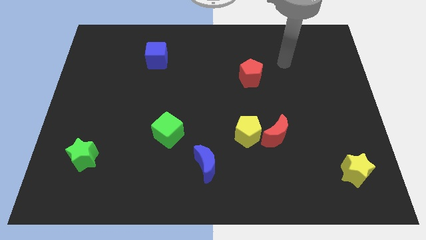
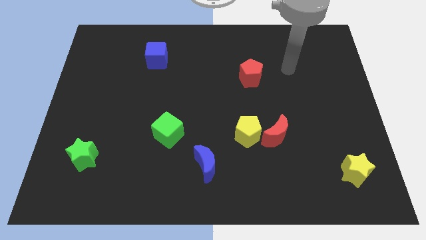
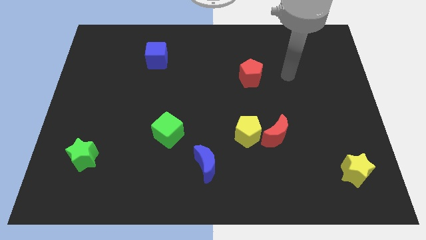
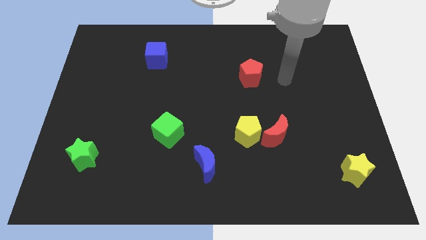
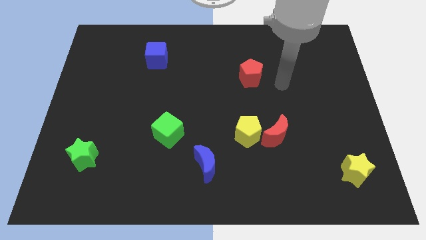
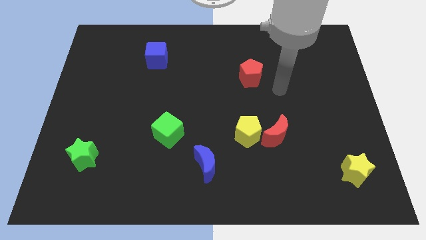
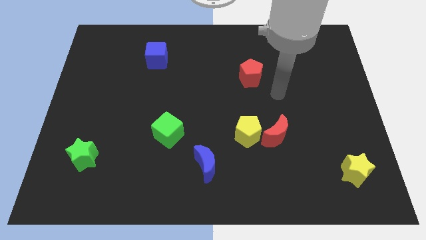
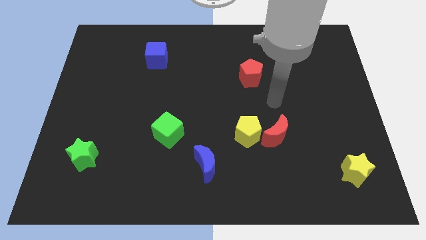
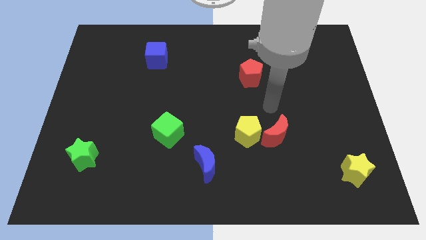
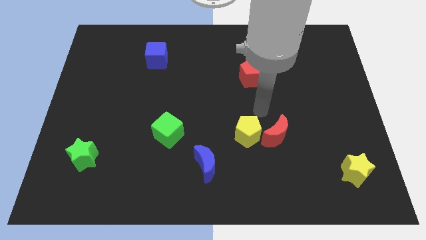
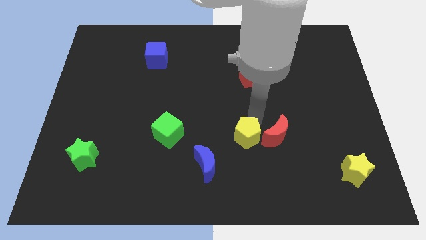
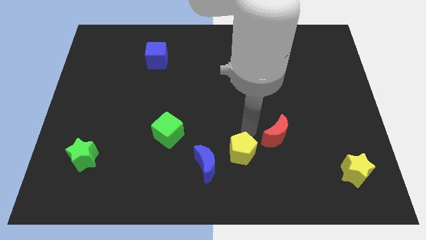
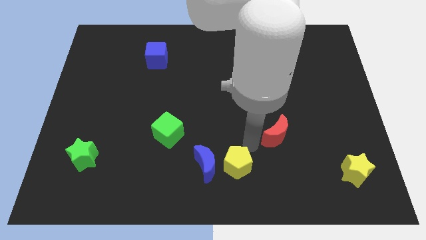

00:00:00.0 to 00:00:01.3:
move the red moon away from the yellow pentagon

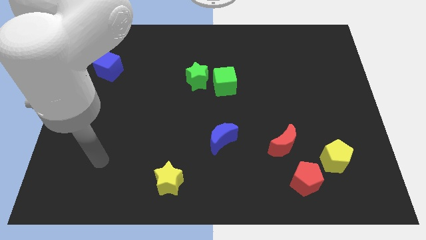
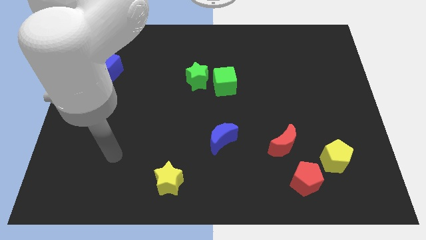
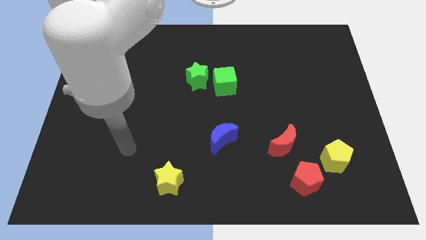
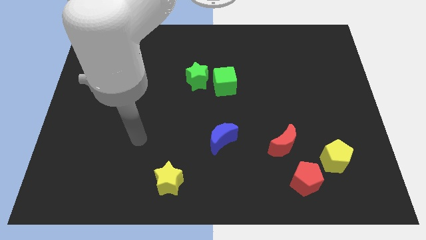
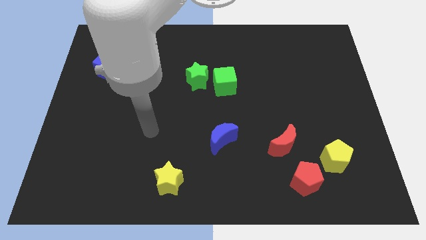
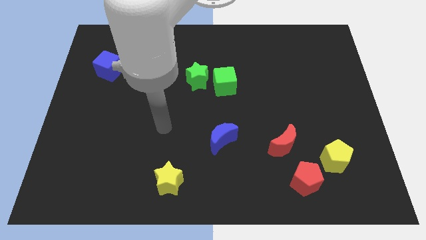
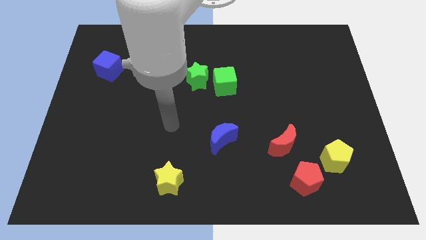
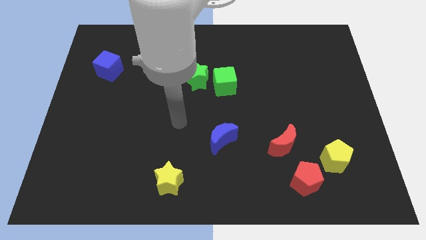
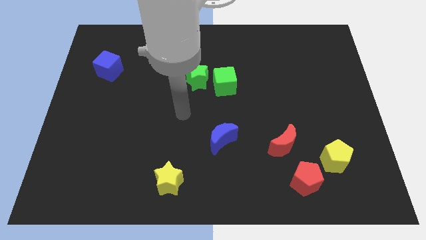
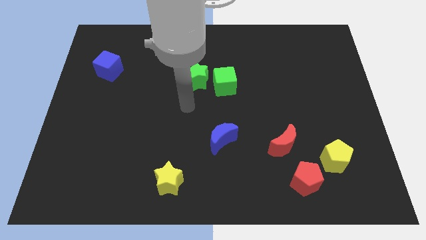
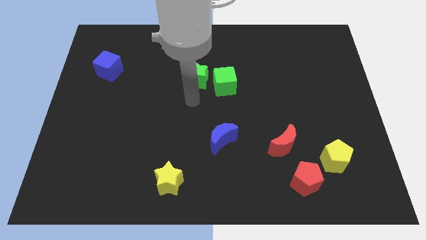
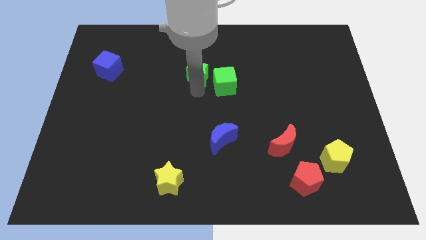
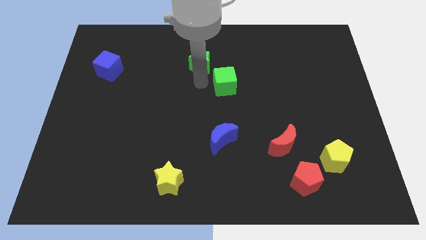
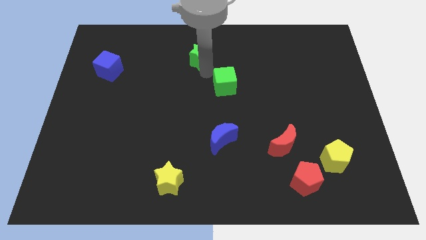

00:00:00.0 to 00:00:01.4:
pull the green cube apart from the green star

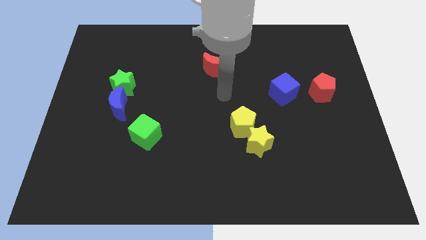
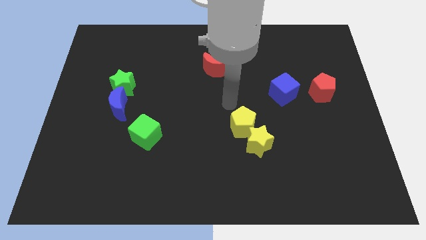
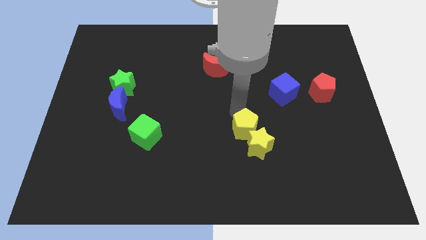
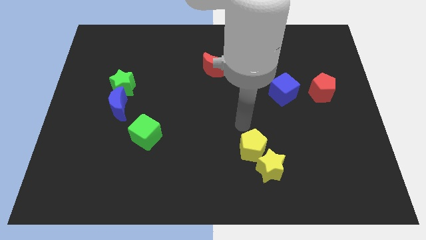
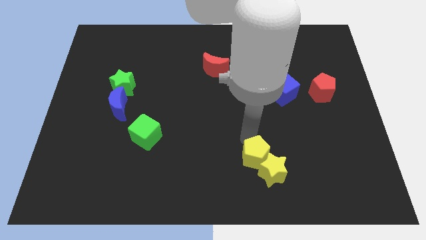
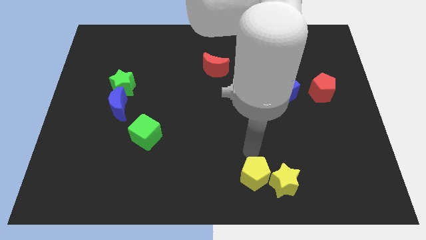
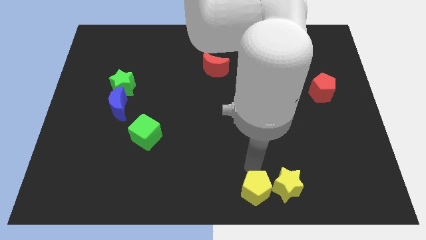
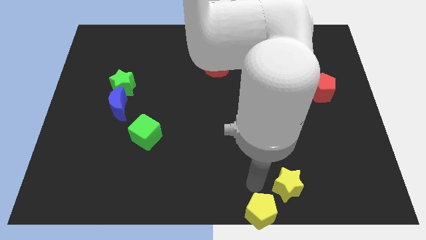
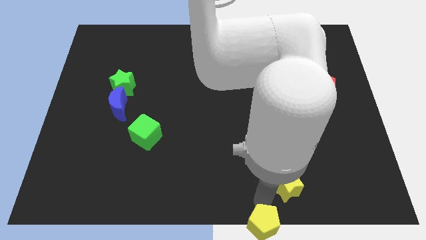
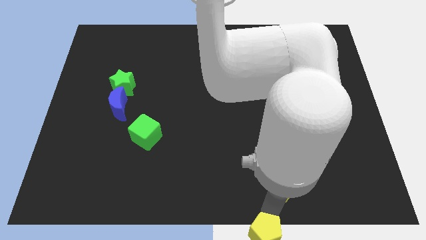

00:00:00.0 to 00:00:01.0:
move the yellow star away from the yellow pentagon

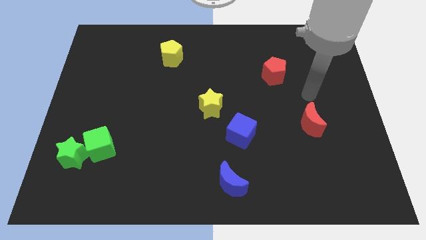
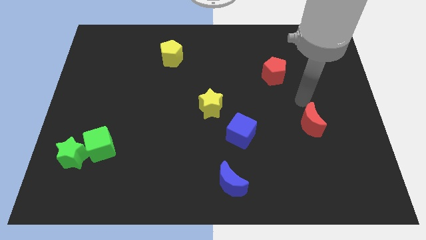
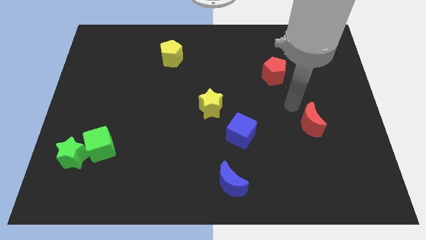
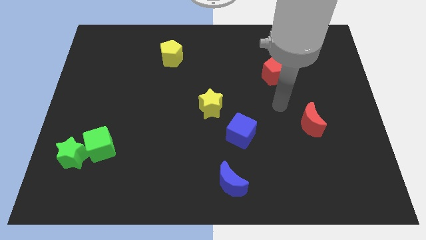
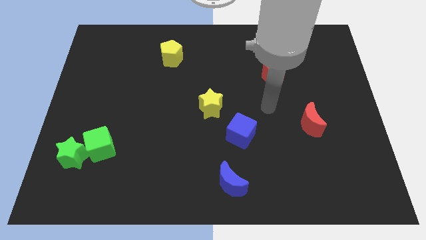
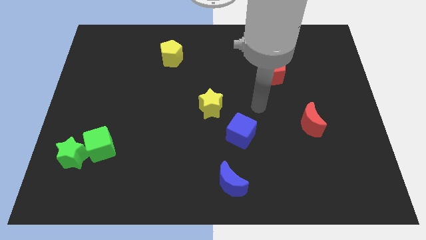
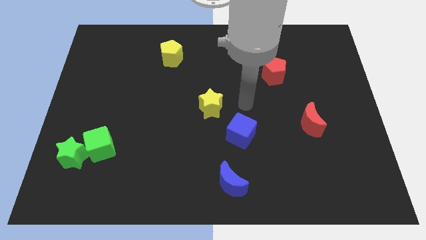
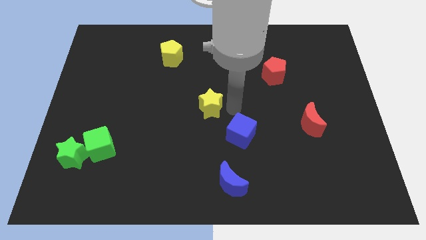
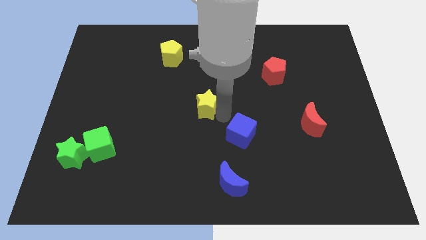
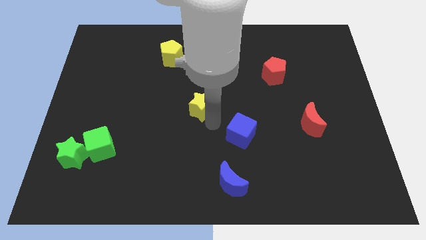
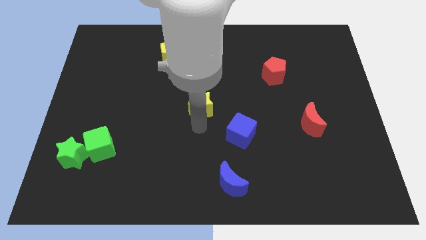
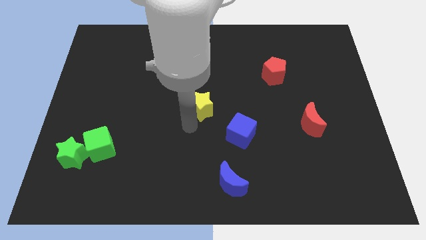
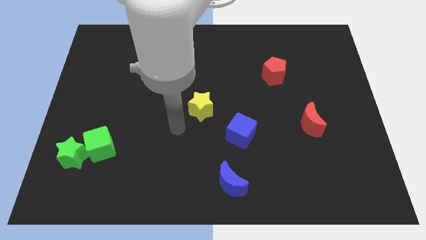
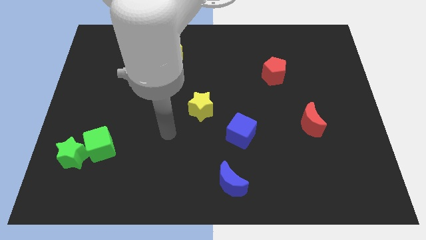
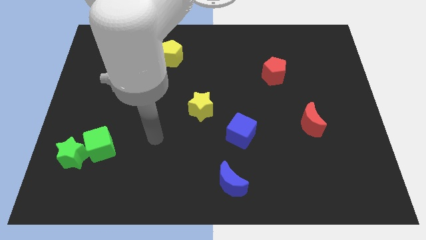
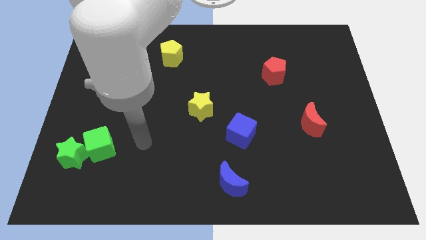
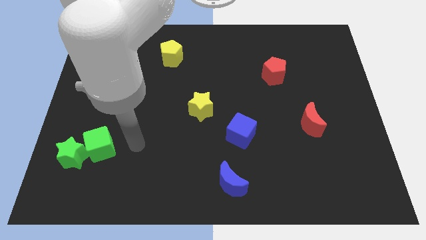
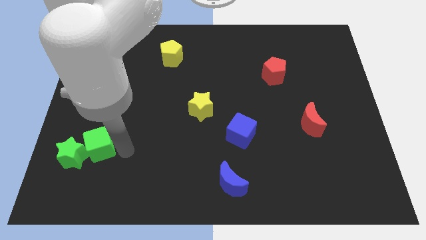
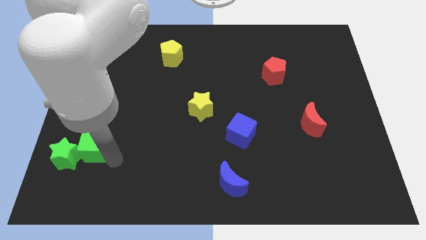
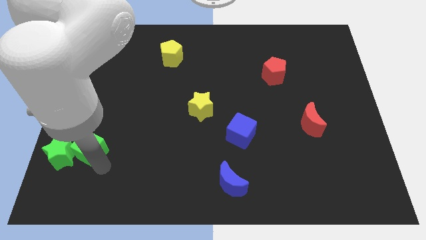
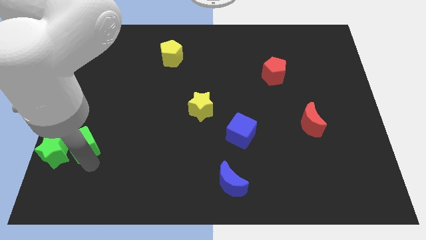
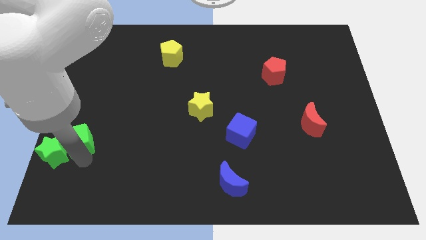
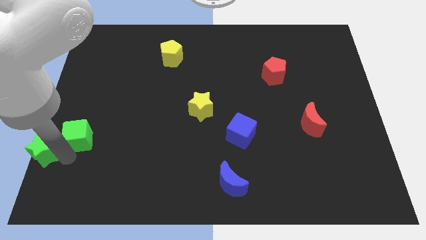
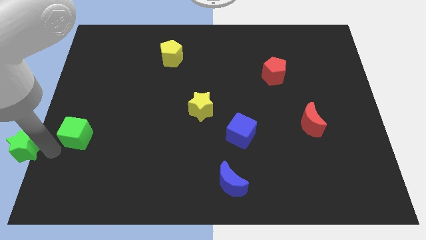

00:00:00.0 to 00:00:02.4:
separate the green cube from the green star

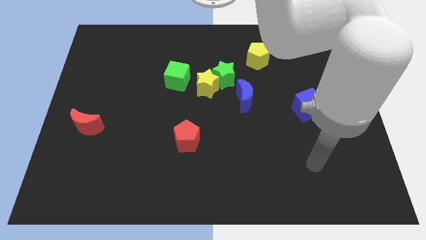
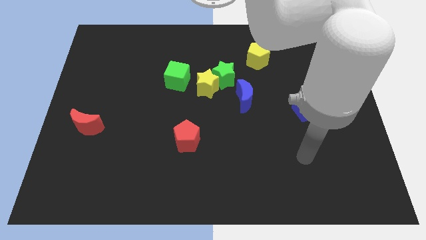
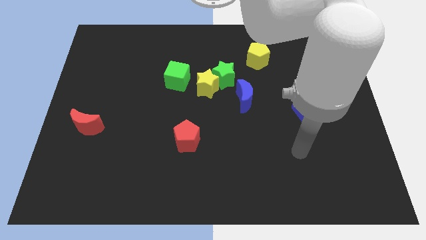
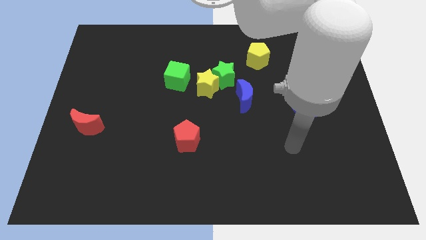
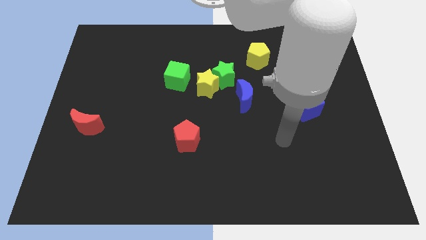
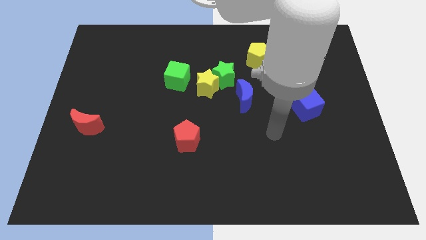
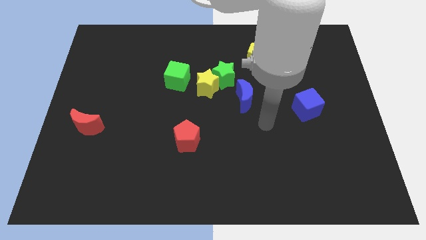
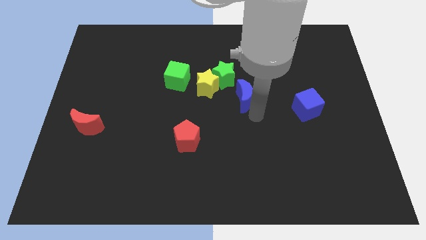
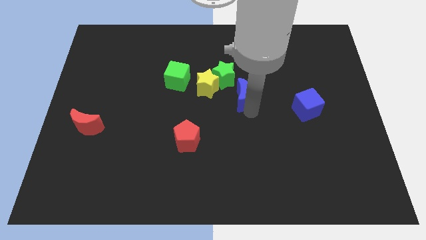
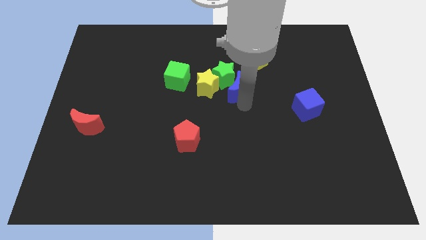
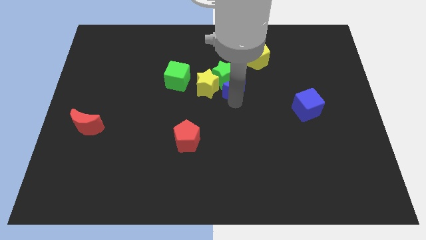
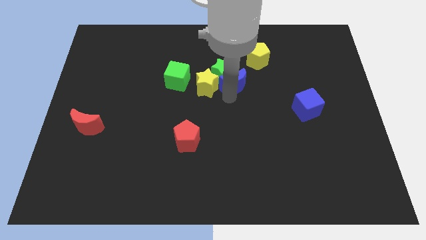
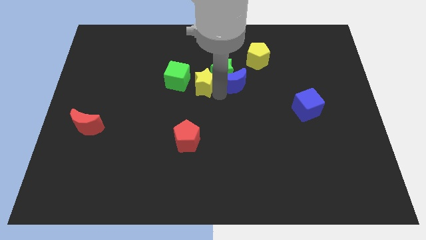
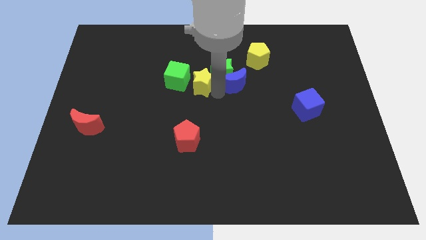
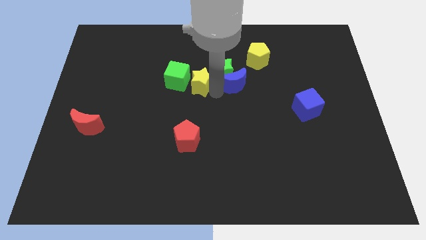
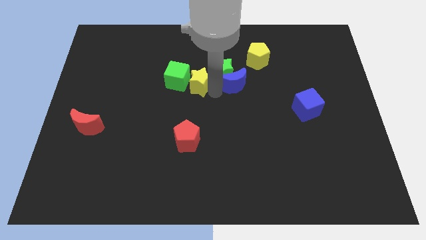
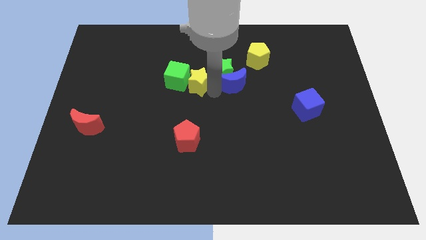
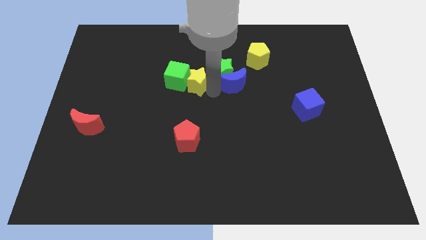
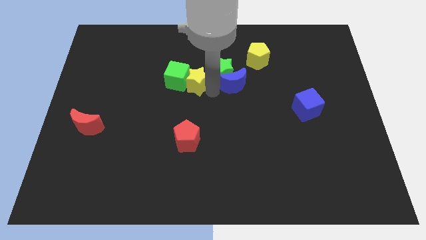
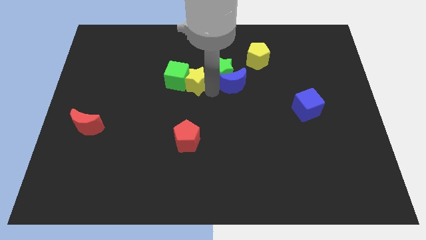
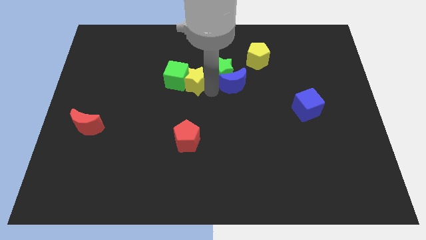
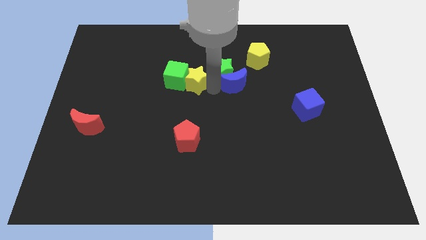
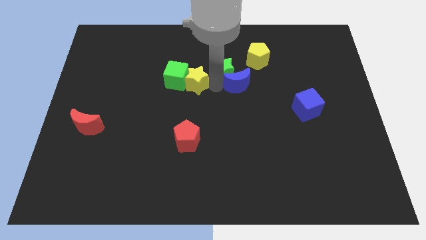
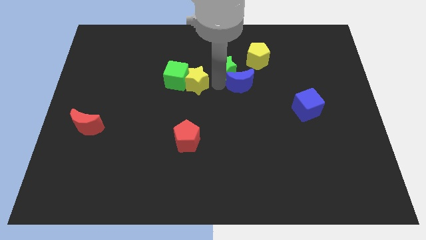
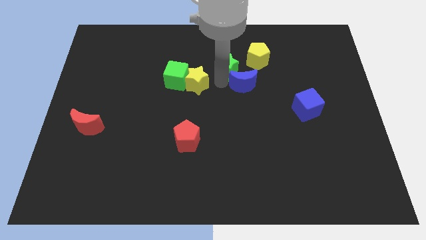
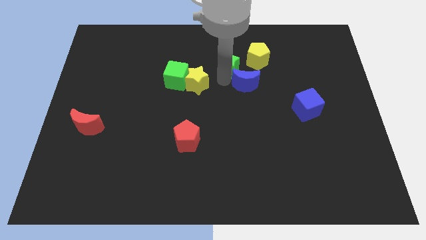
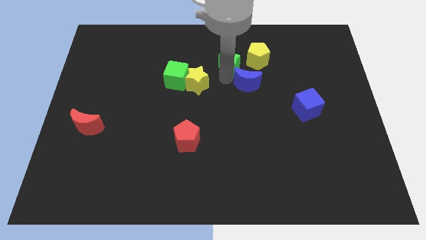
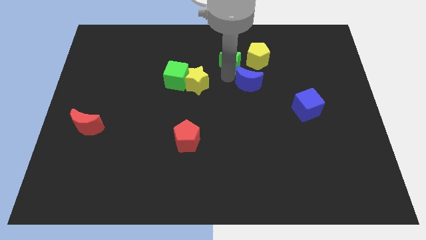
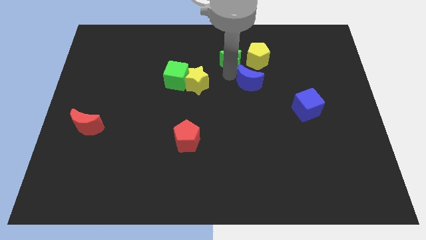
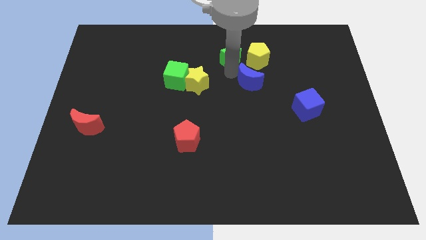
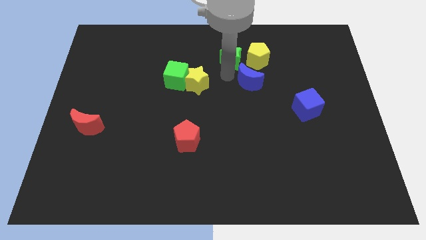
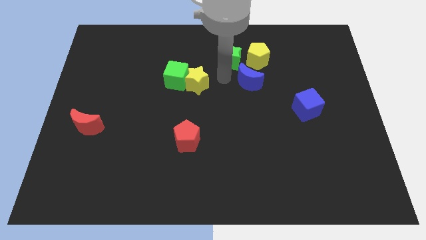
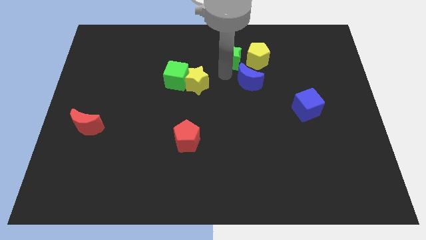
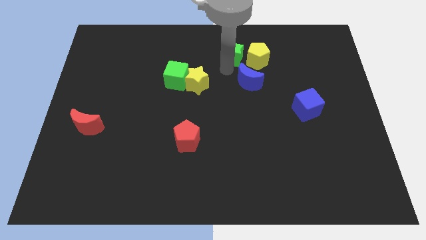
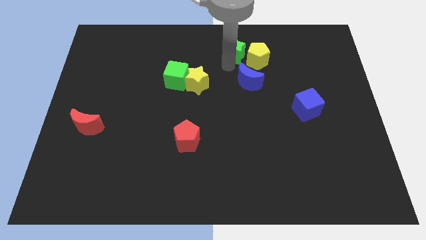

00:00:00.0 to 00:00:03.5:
pull the green star apart from the yellow star and blue moon
